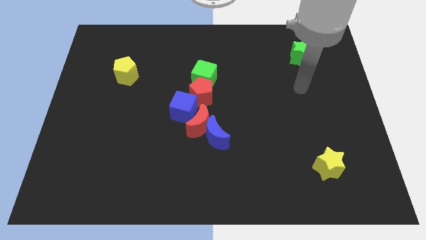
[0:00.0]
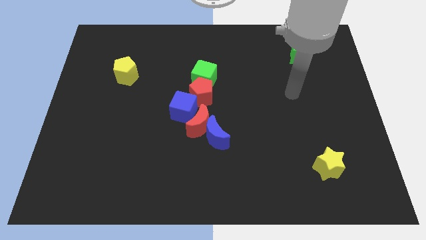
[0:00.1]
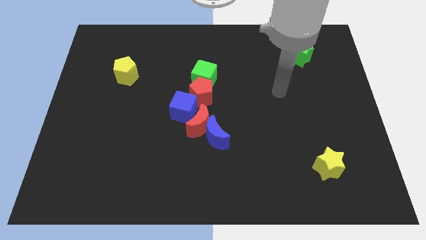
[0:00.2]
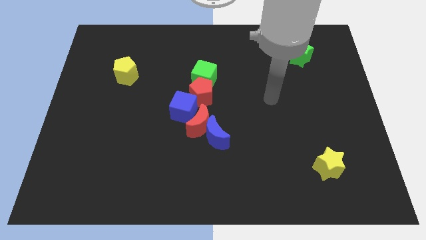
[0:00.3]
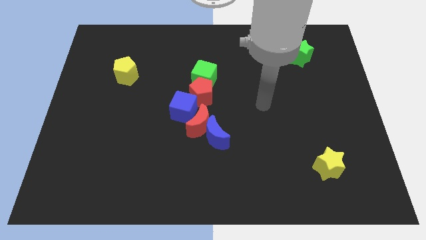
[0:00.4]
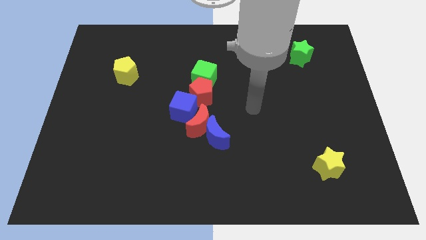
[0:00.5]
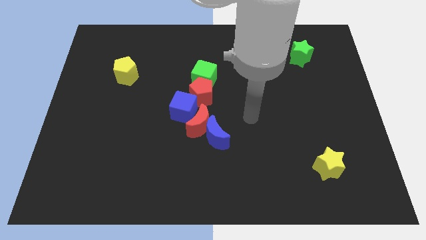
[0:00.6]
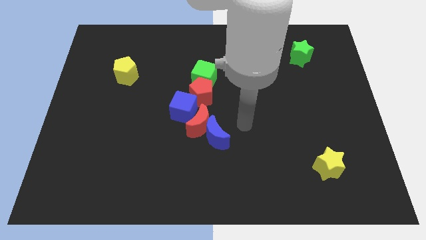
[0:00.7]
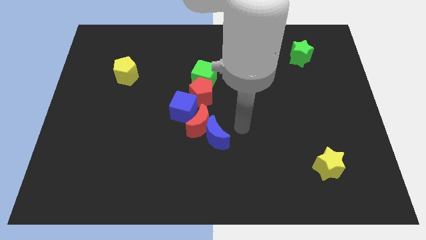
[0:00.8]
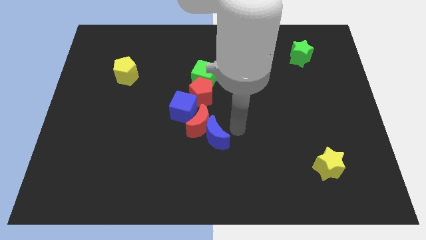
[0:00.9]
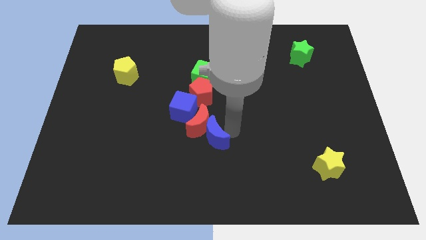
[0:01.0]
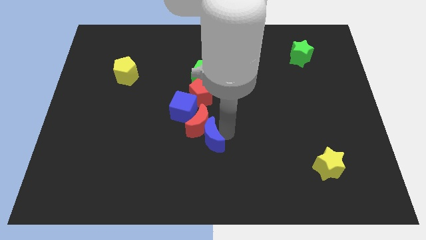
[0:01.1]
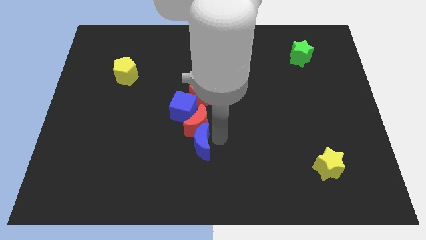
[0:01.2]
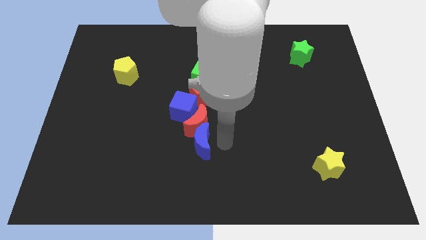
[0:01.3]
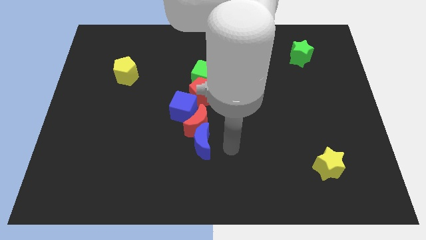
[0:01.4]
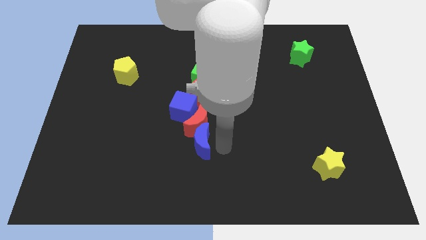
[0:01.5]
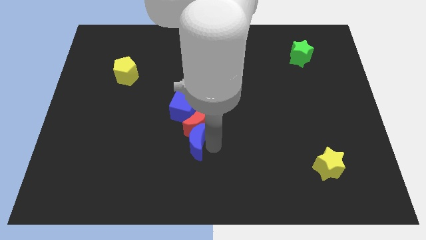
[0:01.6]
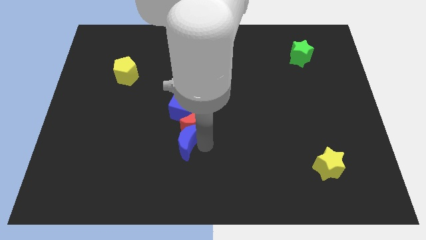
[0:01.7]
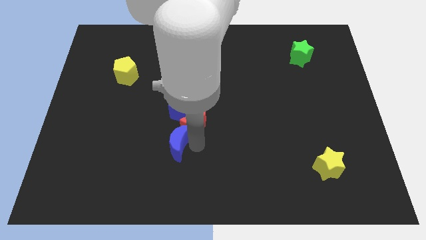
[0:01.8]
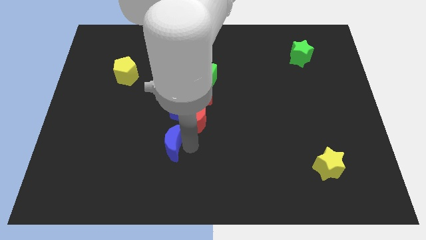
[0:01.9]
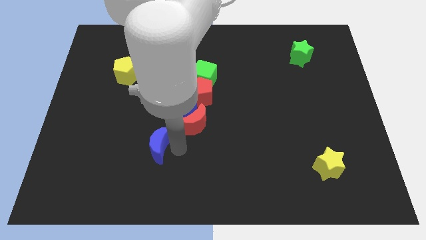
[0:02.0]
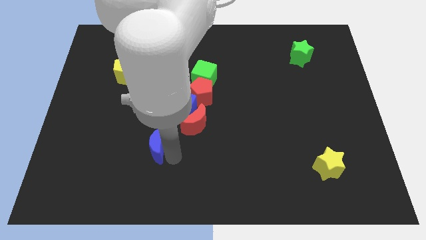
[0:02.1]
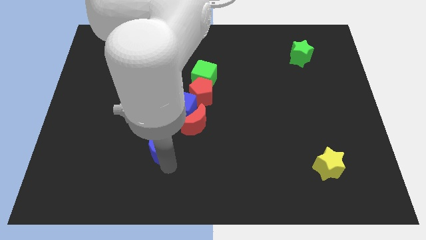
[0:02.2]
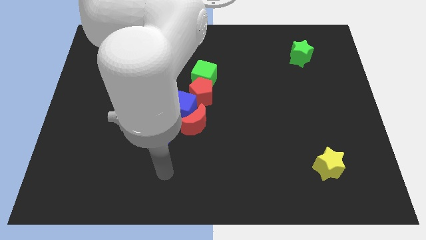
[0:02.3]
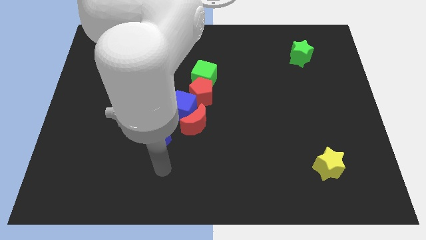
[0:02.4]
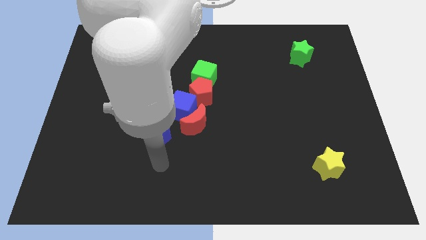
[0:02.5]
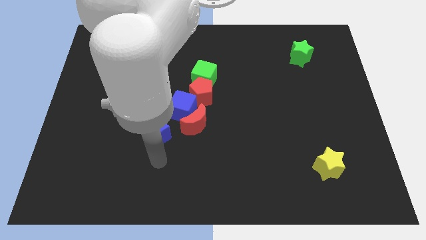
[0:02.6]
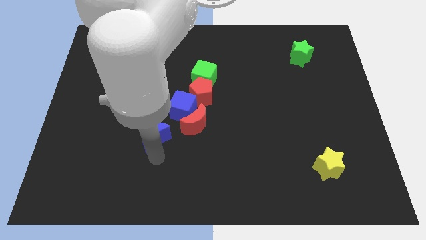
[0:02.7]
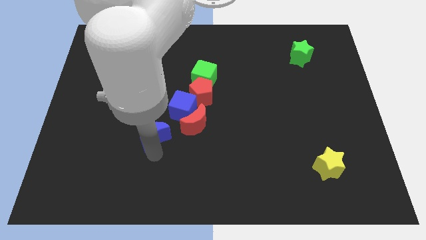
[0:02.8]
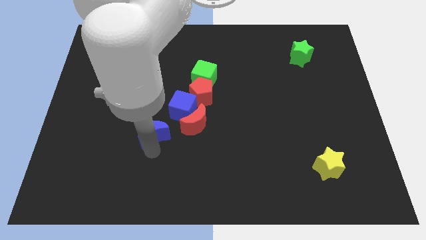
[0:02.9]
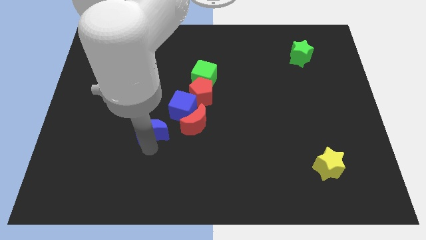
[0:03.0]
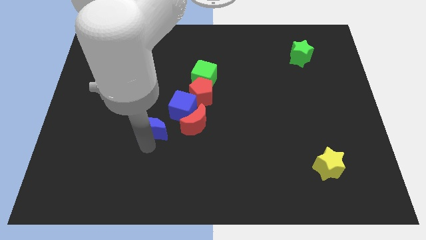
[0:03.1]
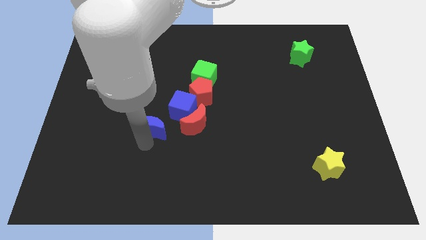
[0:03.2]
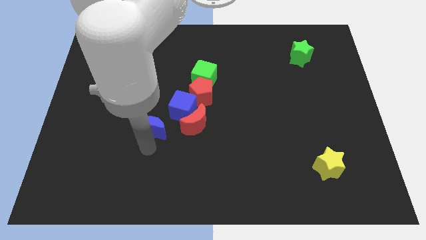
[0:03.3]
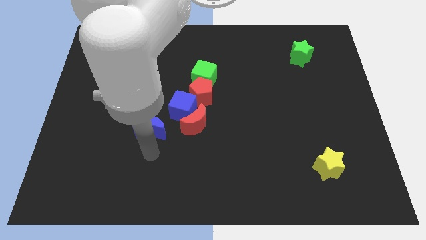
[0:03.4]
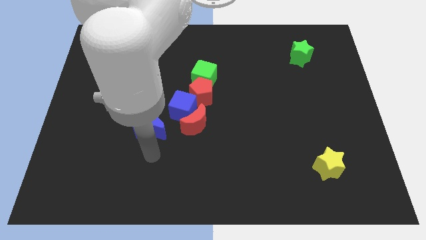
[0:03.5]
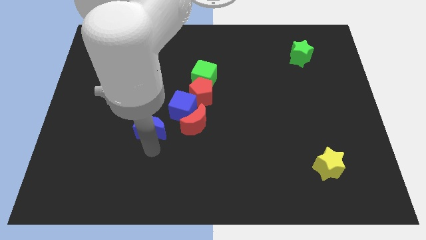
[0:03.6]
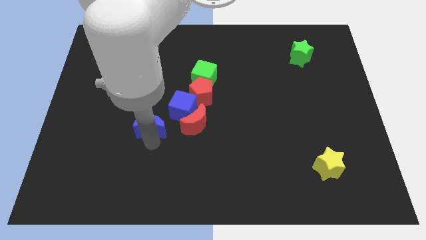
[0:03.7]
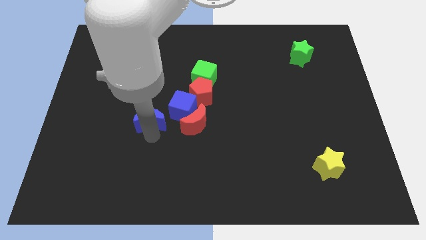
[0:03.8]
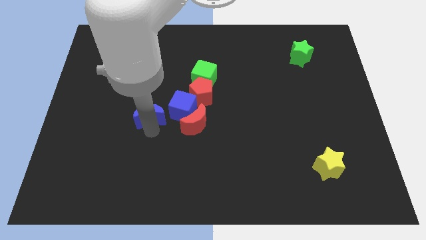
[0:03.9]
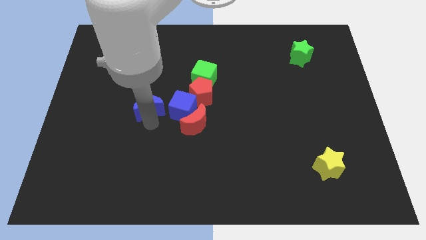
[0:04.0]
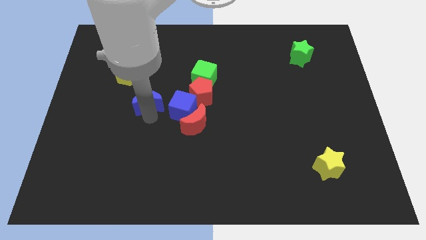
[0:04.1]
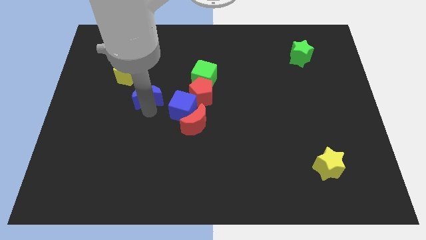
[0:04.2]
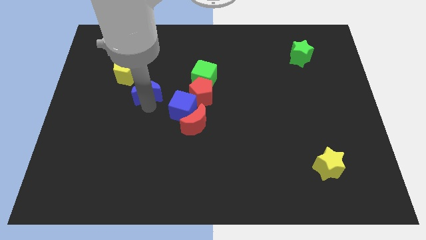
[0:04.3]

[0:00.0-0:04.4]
push the blue moon diagonally upwards and left

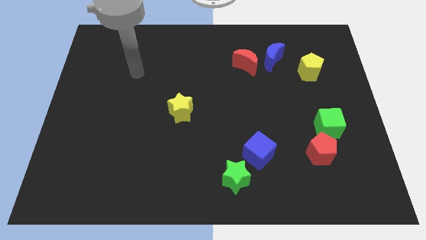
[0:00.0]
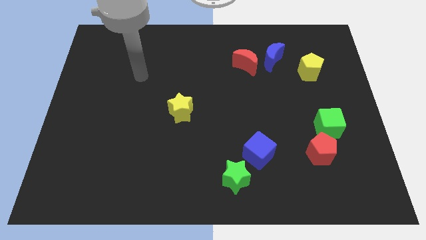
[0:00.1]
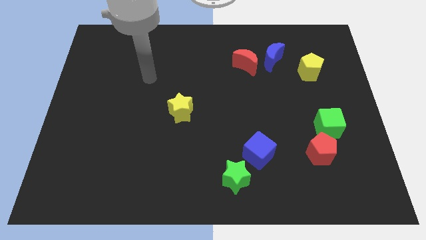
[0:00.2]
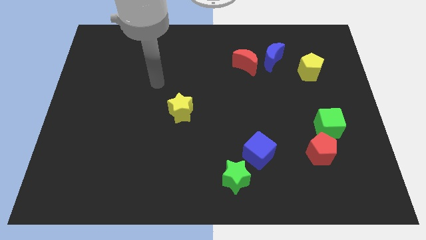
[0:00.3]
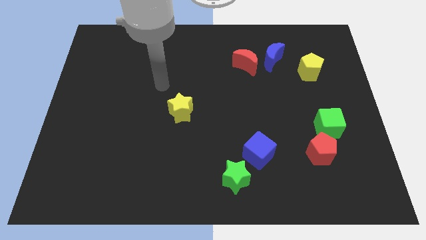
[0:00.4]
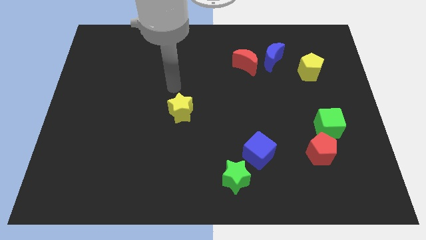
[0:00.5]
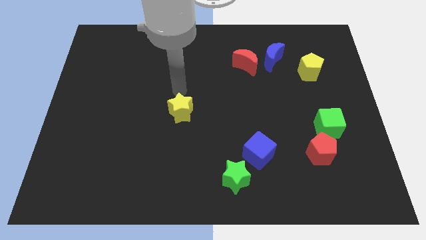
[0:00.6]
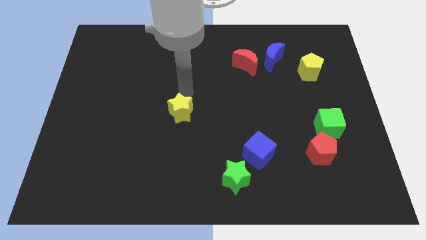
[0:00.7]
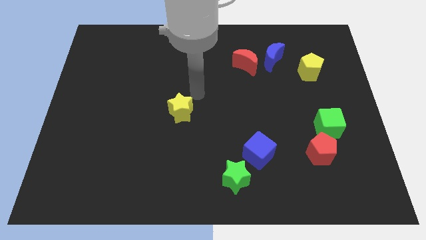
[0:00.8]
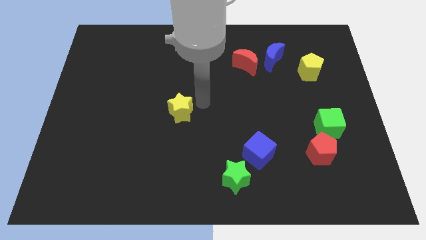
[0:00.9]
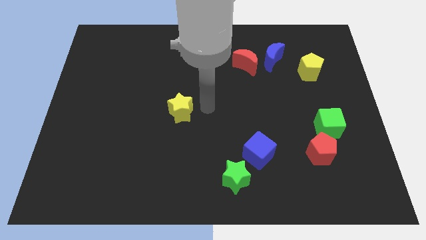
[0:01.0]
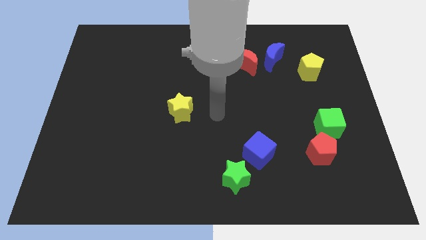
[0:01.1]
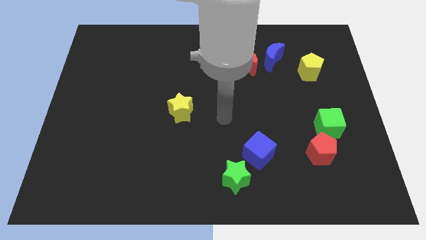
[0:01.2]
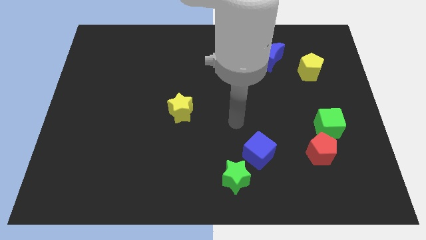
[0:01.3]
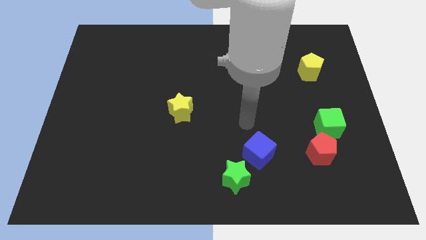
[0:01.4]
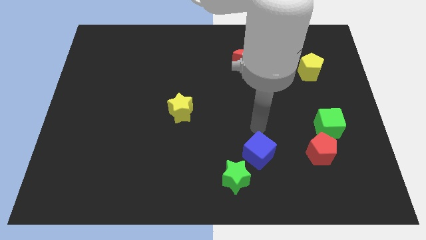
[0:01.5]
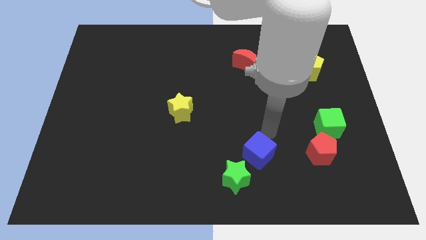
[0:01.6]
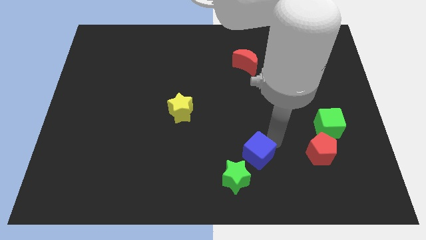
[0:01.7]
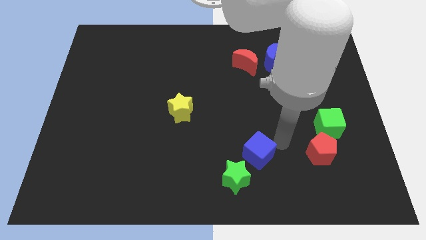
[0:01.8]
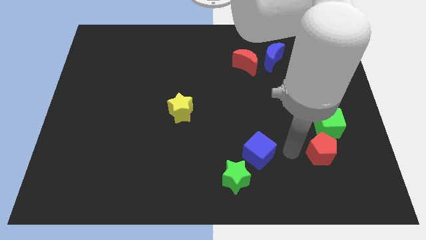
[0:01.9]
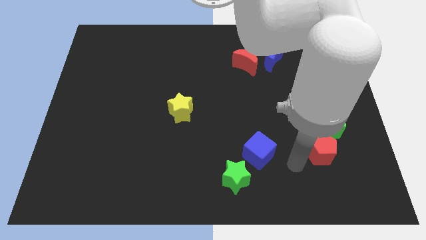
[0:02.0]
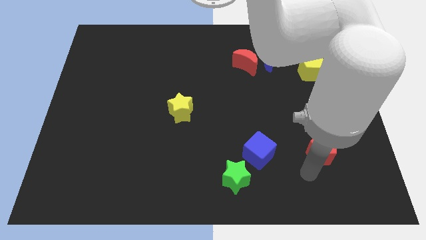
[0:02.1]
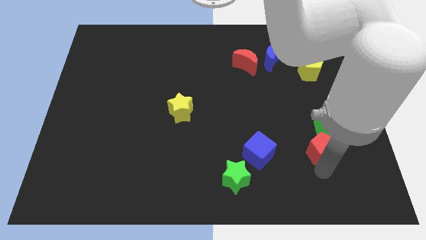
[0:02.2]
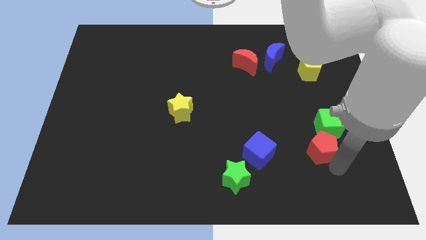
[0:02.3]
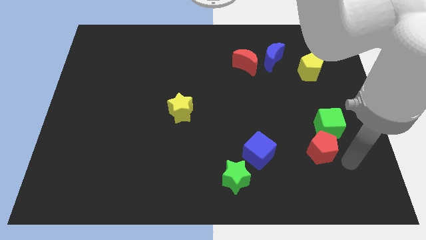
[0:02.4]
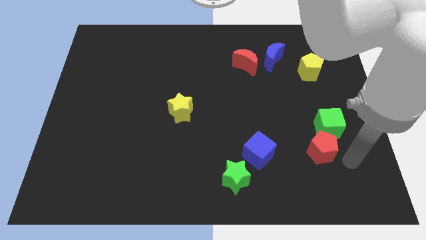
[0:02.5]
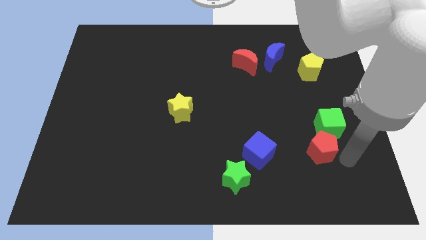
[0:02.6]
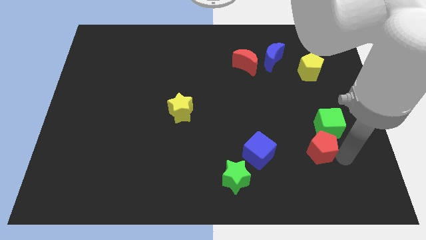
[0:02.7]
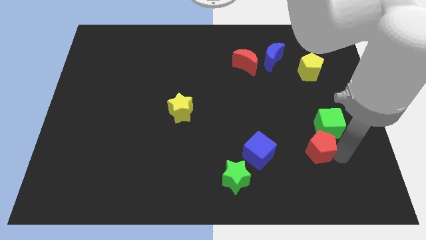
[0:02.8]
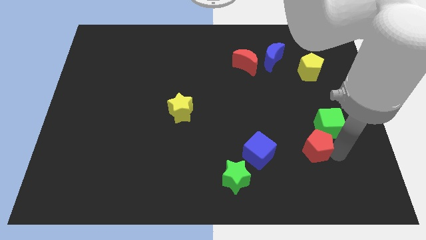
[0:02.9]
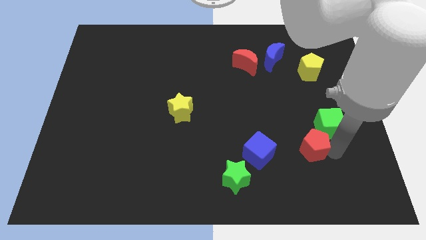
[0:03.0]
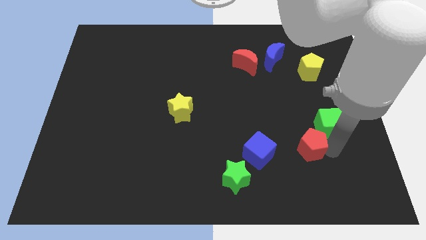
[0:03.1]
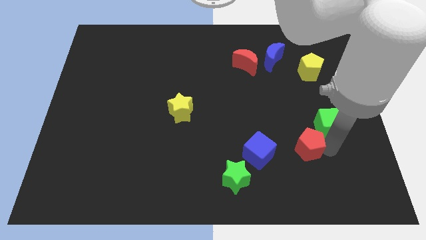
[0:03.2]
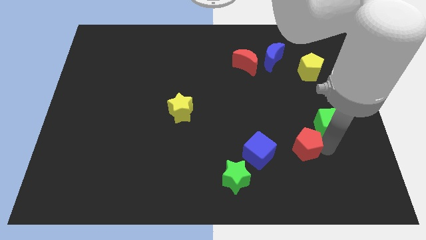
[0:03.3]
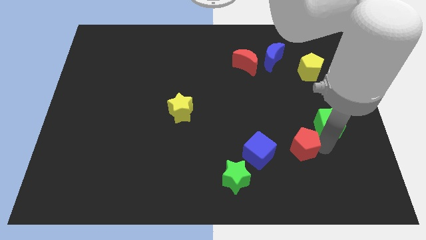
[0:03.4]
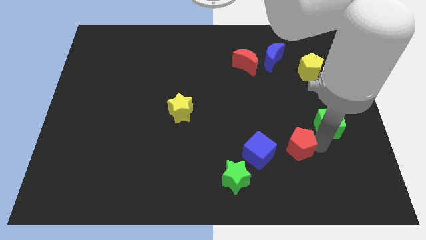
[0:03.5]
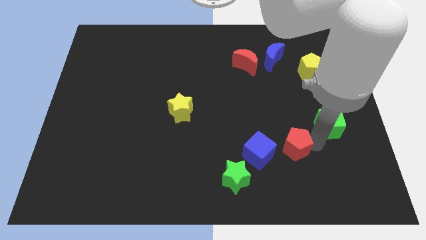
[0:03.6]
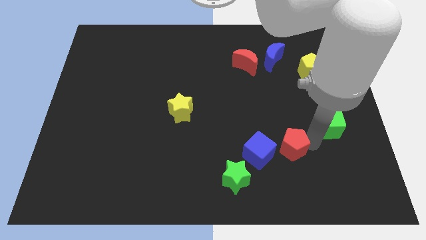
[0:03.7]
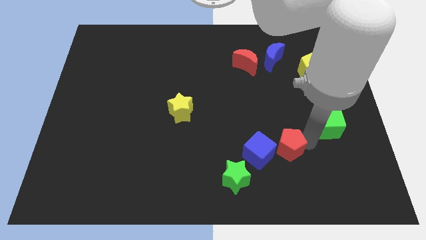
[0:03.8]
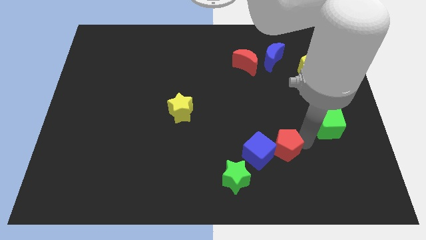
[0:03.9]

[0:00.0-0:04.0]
slide the red pentagon somewhat to the left

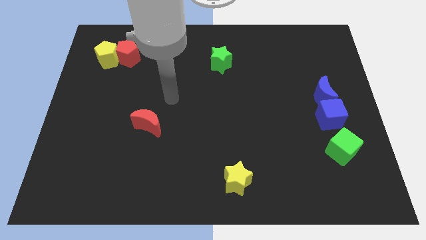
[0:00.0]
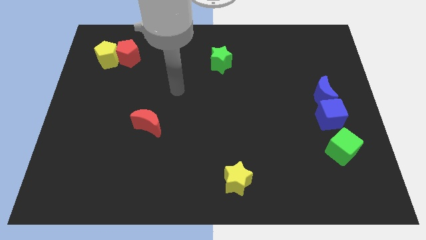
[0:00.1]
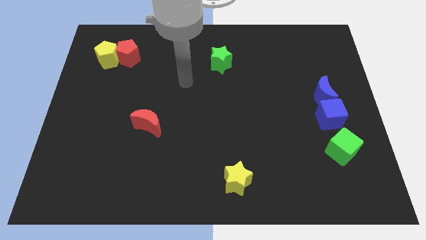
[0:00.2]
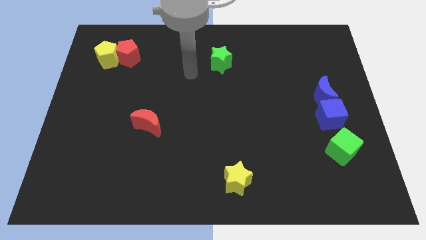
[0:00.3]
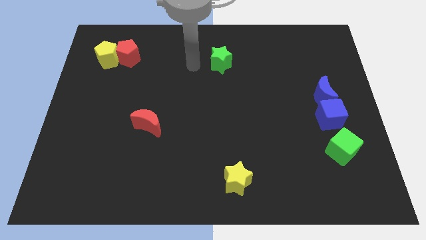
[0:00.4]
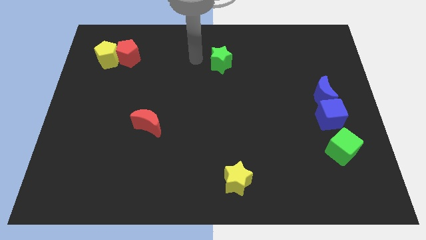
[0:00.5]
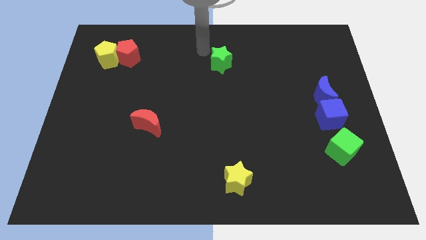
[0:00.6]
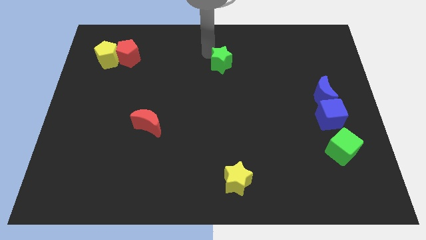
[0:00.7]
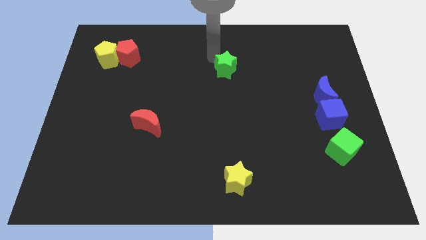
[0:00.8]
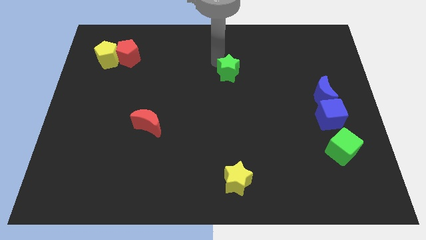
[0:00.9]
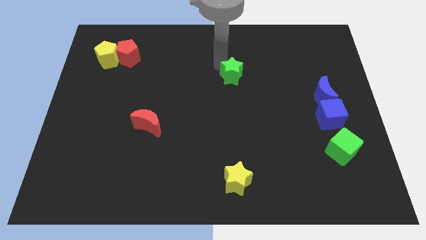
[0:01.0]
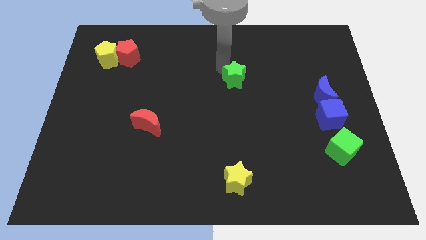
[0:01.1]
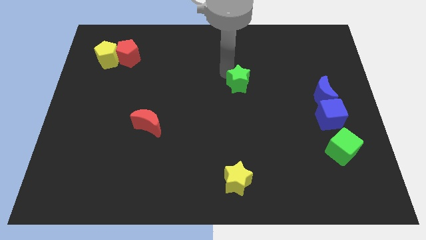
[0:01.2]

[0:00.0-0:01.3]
slightly move the green star downwards and then to the right
